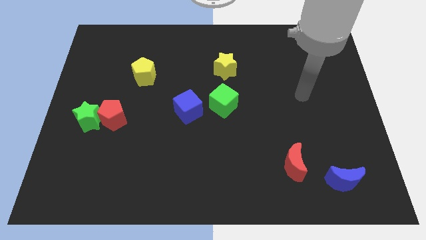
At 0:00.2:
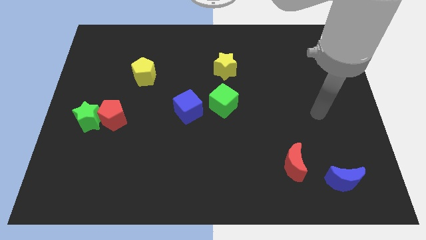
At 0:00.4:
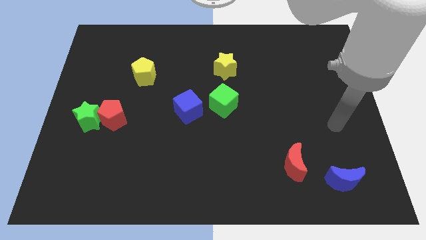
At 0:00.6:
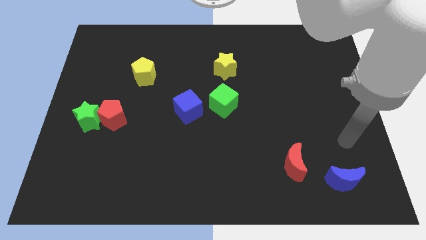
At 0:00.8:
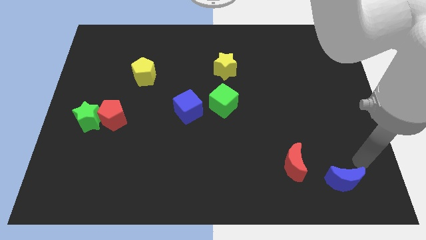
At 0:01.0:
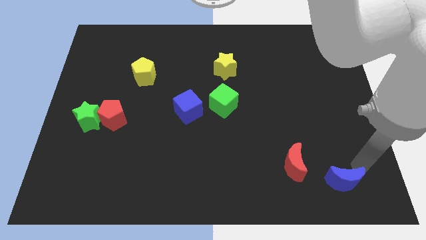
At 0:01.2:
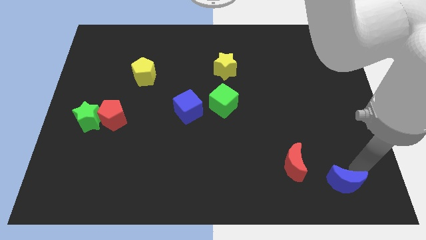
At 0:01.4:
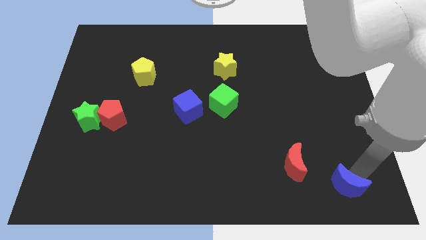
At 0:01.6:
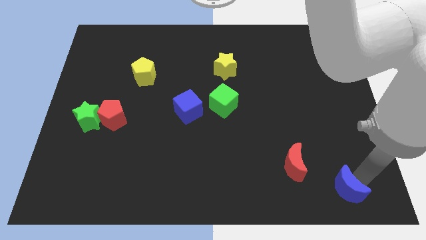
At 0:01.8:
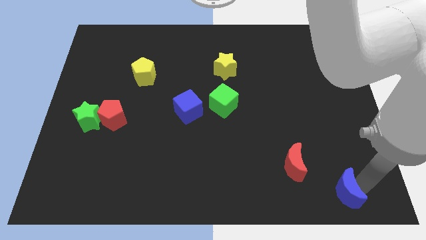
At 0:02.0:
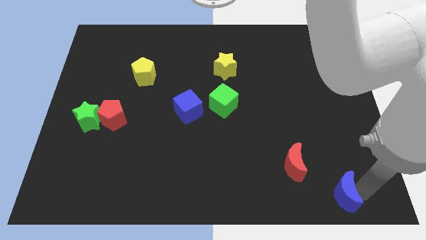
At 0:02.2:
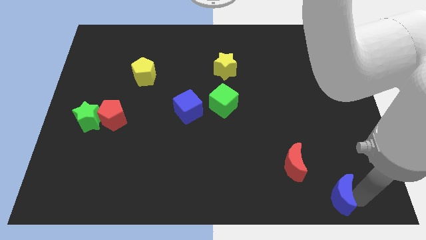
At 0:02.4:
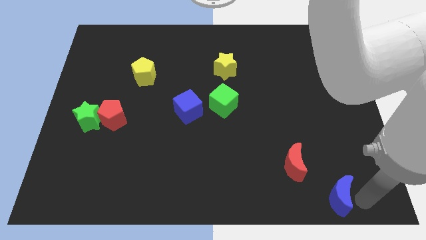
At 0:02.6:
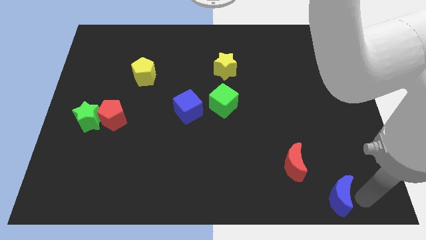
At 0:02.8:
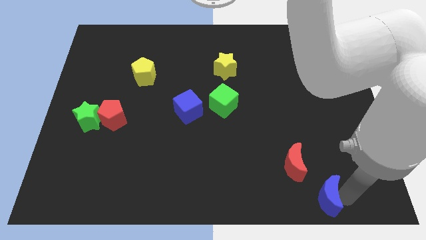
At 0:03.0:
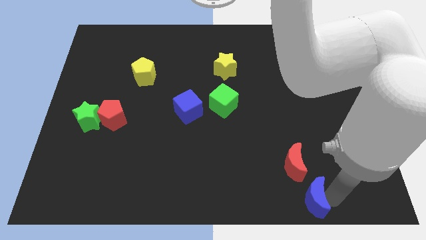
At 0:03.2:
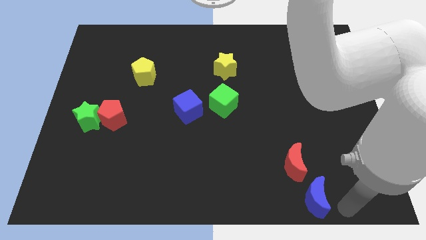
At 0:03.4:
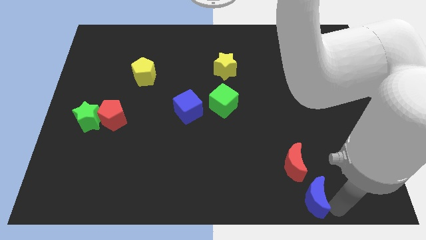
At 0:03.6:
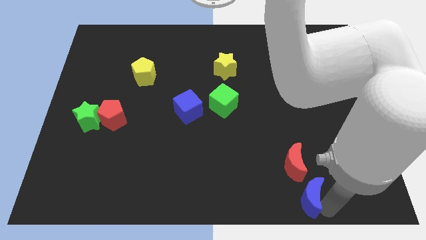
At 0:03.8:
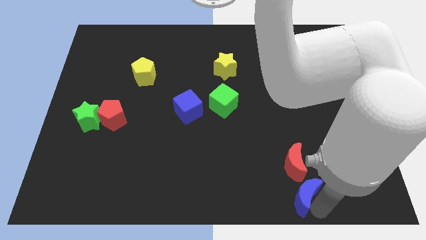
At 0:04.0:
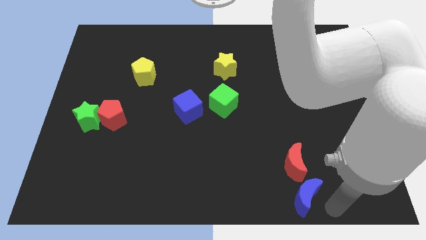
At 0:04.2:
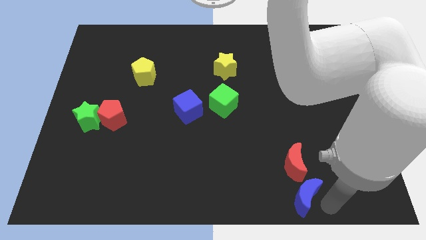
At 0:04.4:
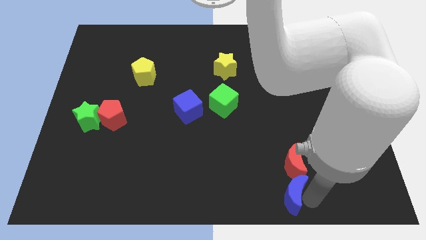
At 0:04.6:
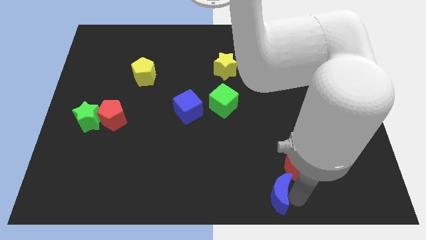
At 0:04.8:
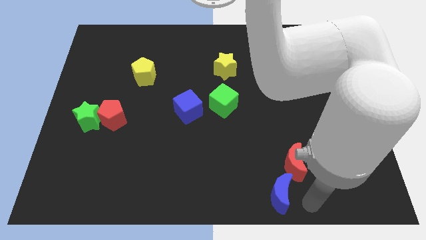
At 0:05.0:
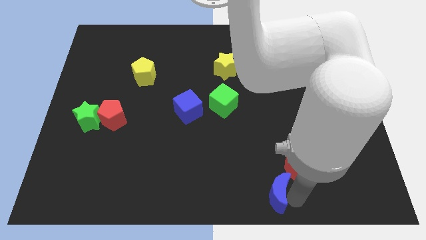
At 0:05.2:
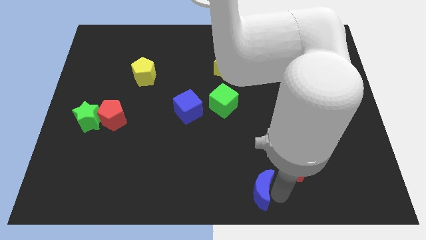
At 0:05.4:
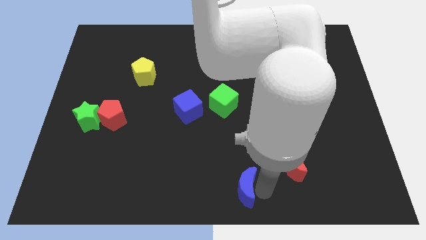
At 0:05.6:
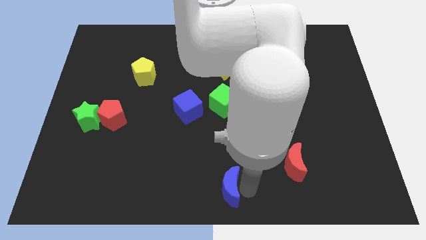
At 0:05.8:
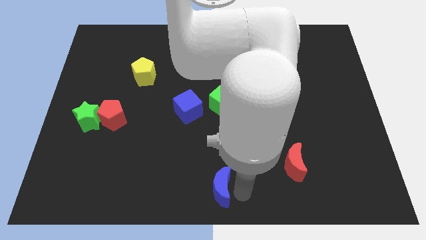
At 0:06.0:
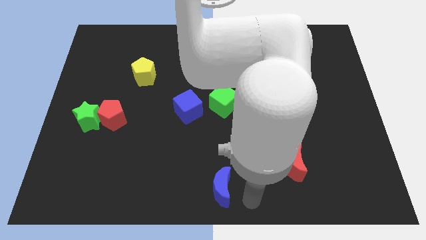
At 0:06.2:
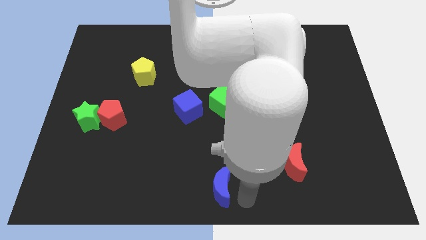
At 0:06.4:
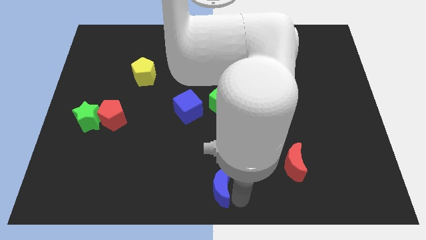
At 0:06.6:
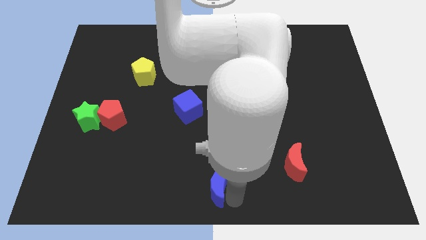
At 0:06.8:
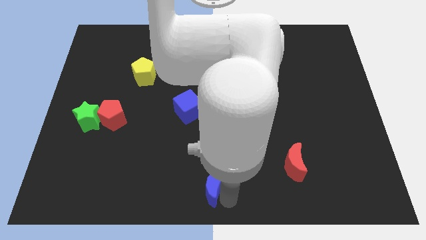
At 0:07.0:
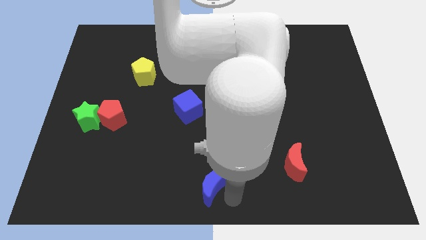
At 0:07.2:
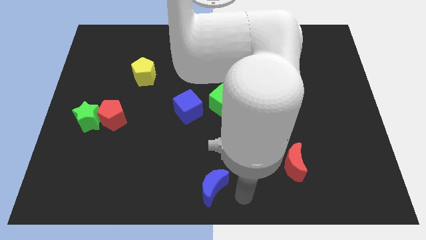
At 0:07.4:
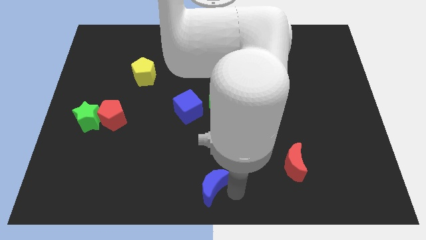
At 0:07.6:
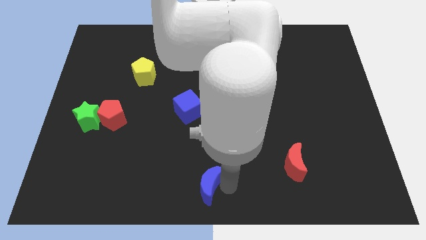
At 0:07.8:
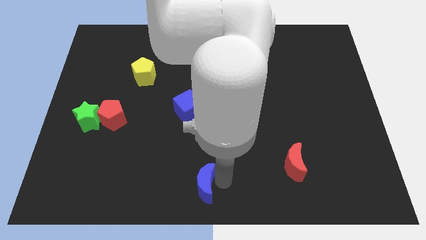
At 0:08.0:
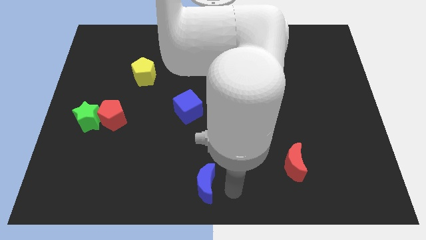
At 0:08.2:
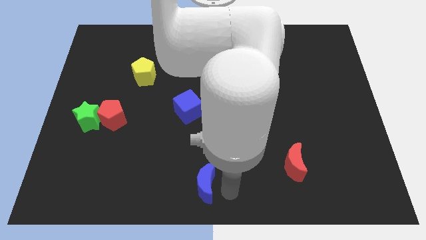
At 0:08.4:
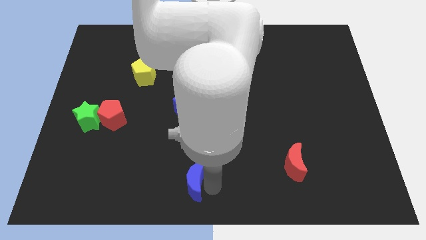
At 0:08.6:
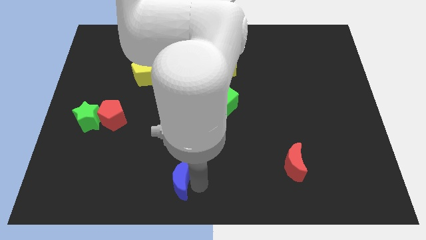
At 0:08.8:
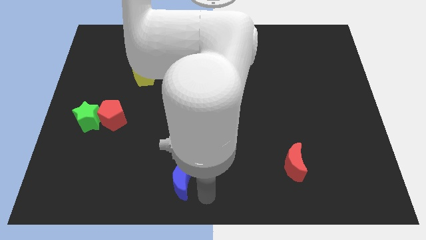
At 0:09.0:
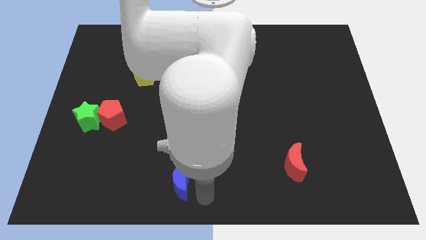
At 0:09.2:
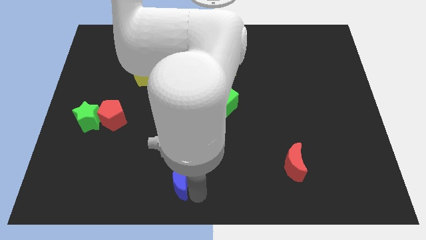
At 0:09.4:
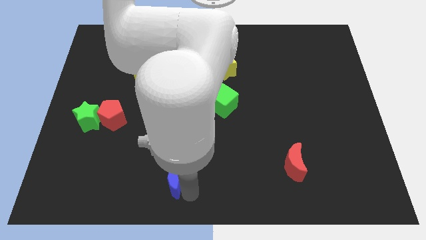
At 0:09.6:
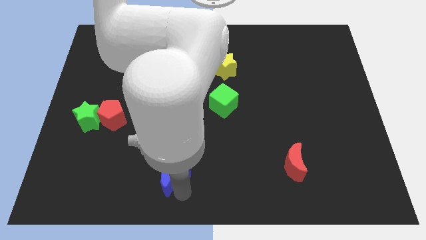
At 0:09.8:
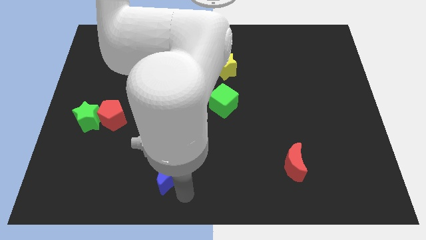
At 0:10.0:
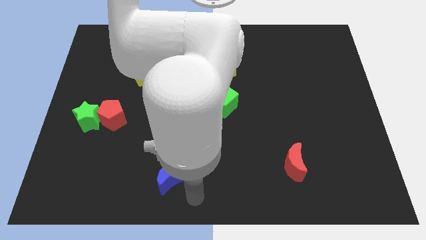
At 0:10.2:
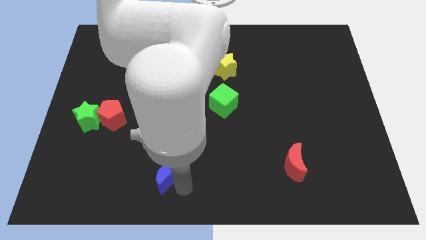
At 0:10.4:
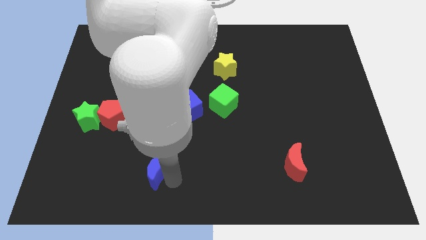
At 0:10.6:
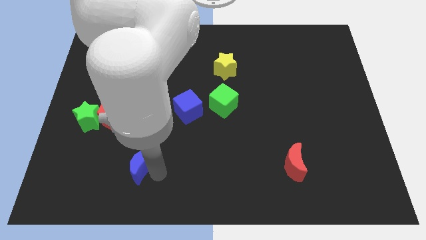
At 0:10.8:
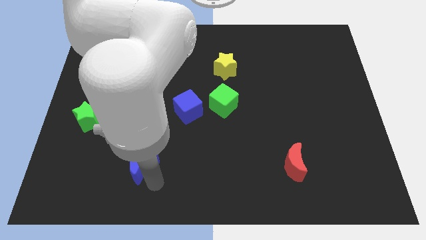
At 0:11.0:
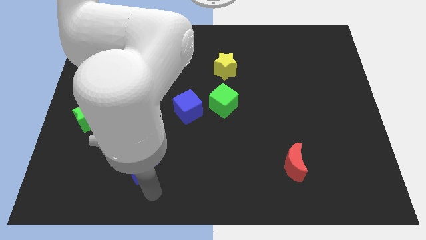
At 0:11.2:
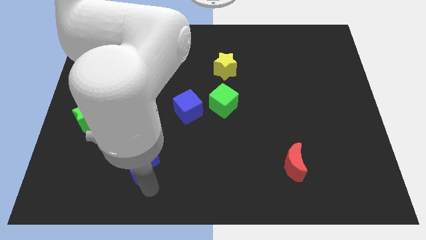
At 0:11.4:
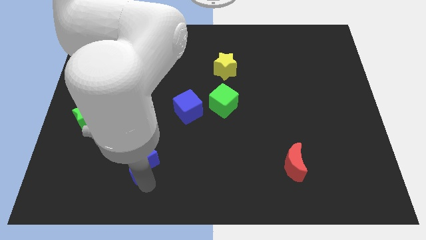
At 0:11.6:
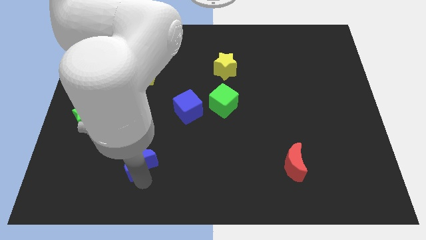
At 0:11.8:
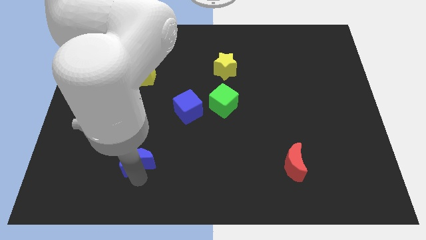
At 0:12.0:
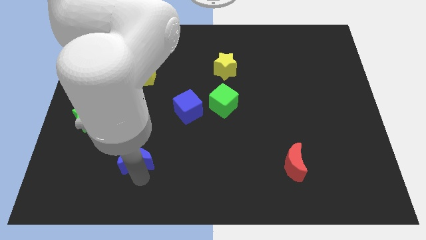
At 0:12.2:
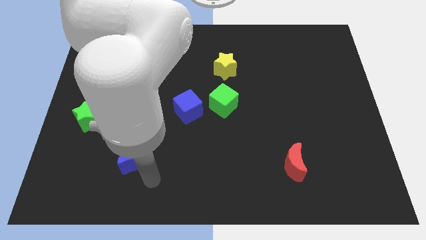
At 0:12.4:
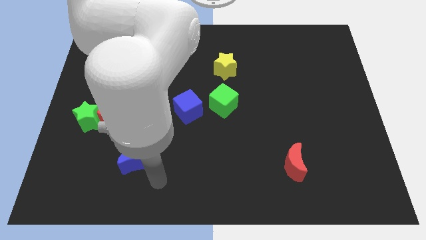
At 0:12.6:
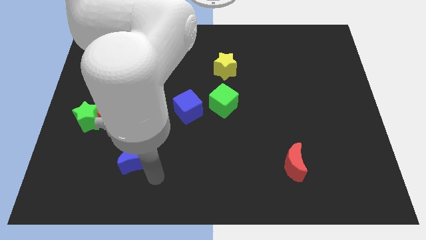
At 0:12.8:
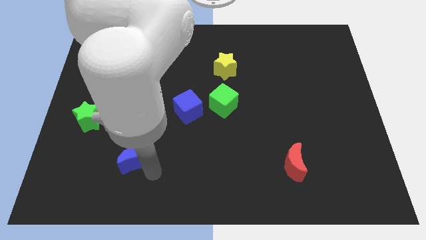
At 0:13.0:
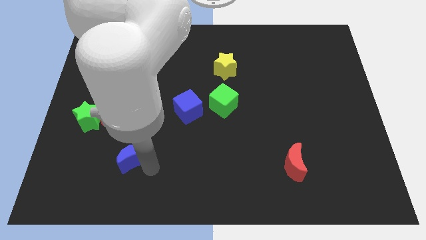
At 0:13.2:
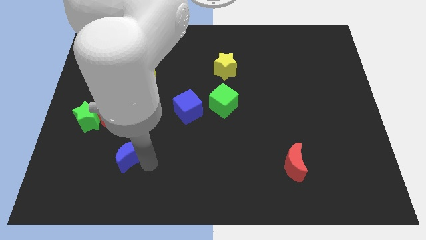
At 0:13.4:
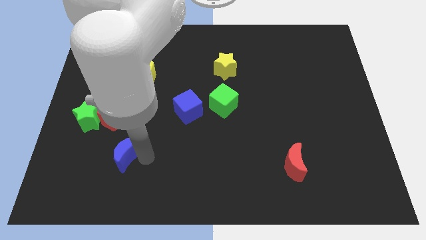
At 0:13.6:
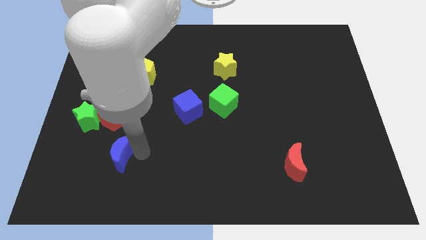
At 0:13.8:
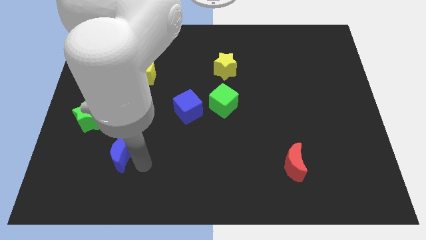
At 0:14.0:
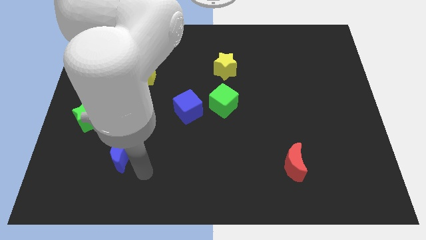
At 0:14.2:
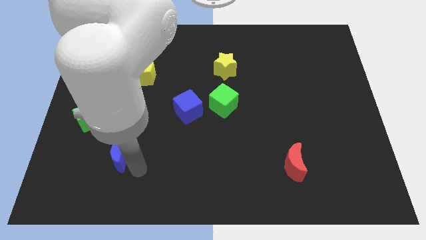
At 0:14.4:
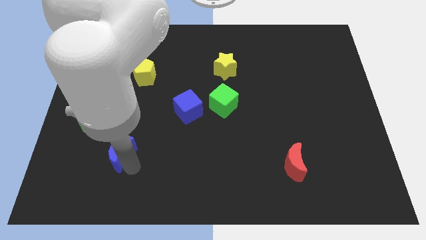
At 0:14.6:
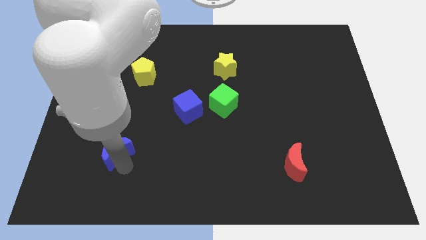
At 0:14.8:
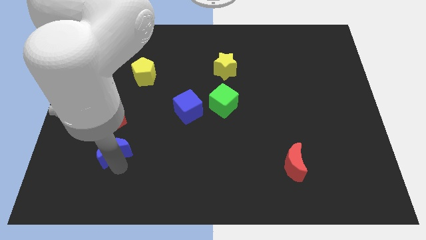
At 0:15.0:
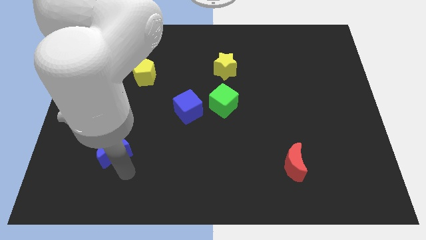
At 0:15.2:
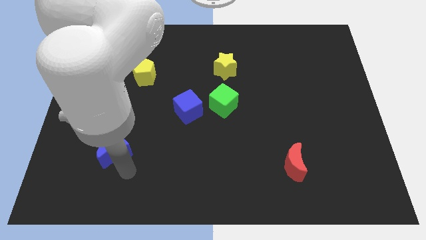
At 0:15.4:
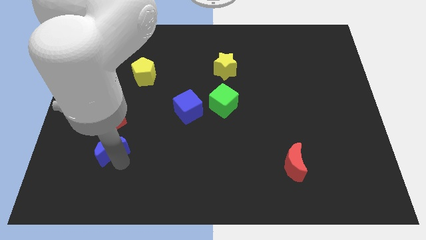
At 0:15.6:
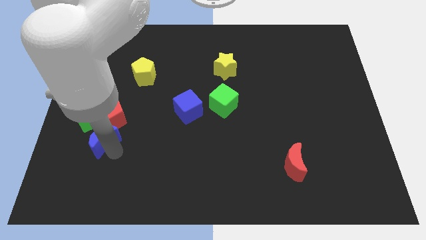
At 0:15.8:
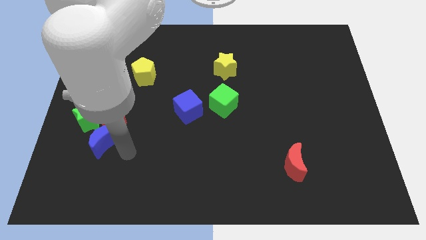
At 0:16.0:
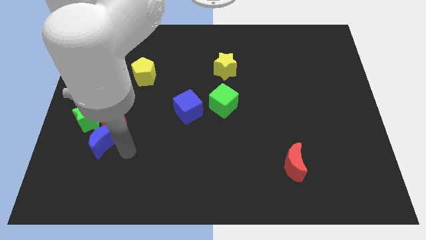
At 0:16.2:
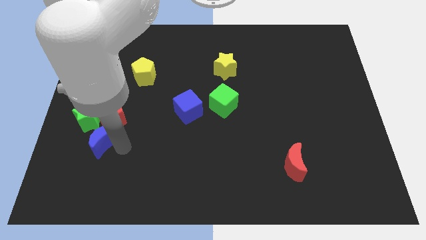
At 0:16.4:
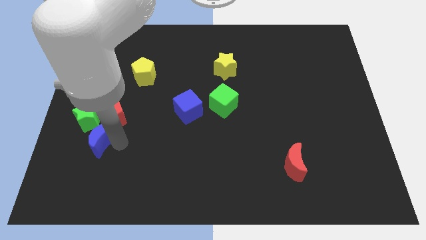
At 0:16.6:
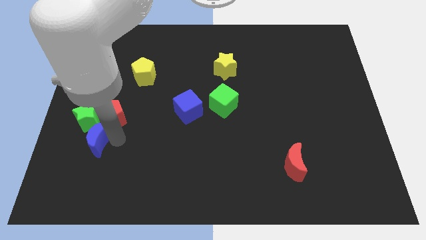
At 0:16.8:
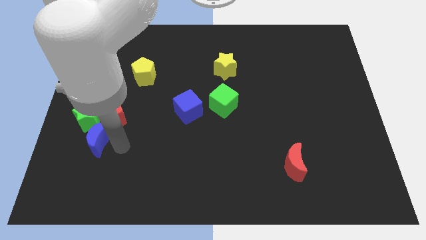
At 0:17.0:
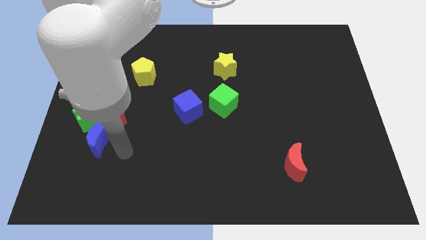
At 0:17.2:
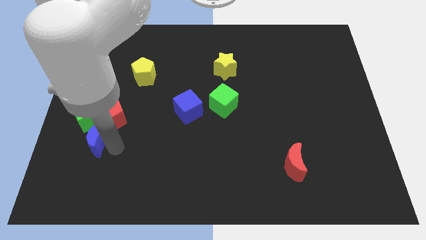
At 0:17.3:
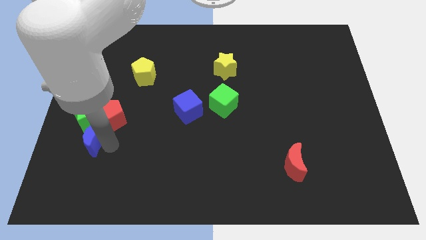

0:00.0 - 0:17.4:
slide the blue moon close to the green star
